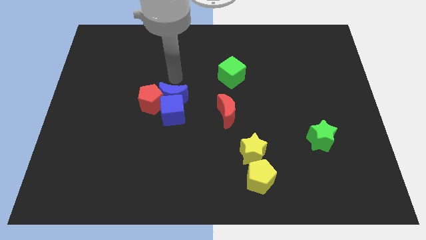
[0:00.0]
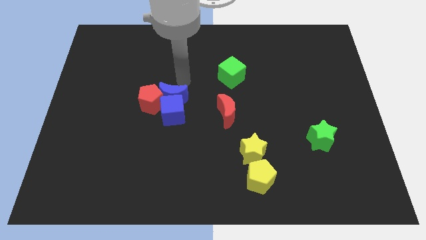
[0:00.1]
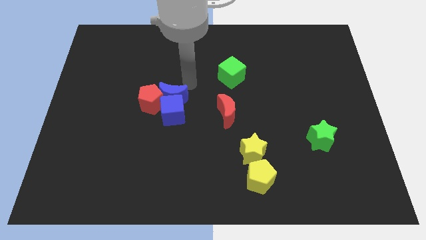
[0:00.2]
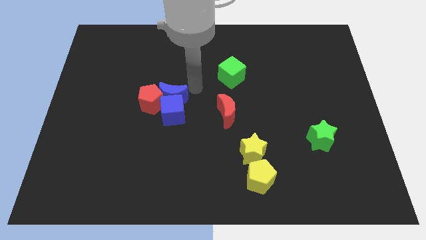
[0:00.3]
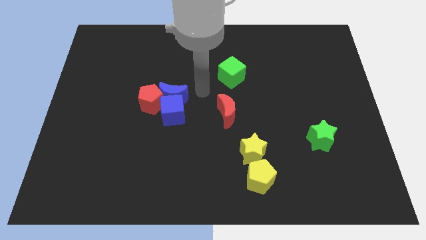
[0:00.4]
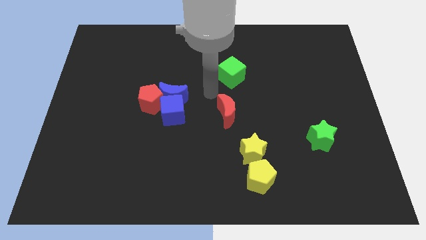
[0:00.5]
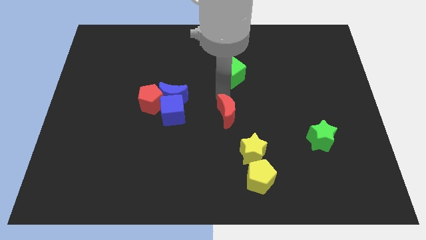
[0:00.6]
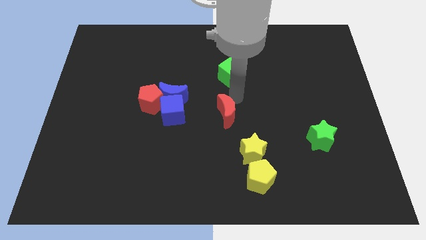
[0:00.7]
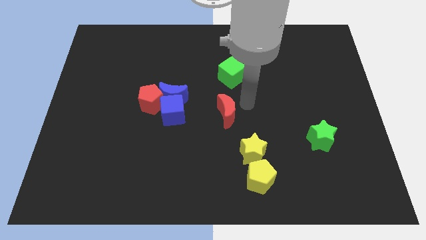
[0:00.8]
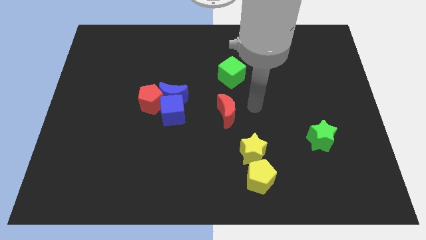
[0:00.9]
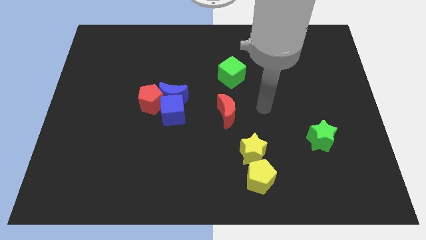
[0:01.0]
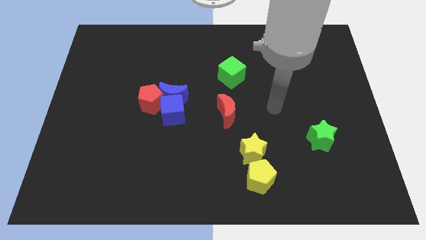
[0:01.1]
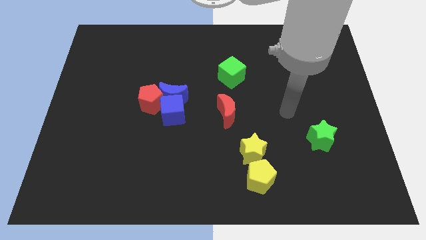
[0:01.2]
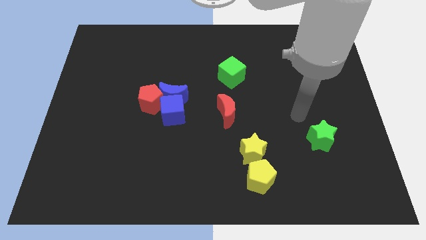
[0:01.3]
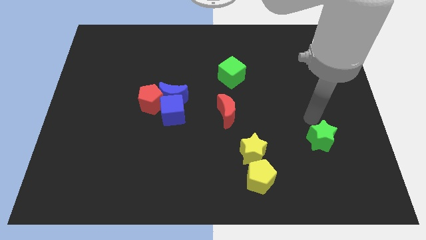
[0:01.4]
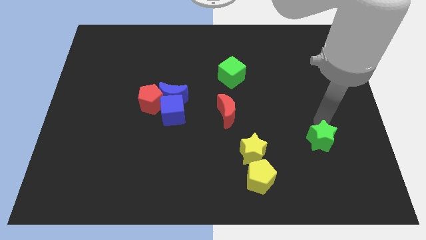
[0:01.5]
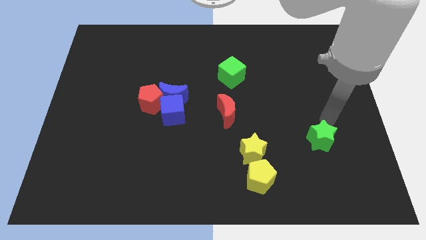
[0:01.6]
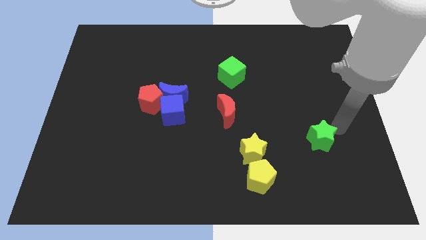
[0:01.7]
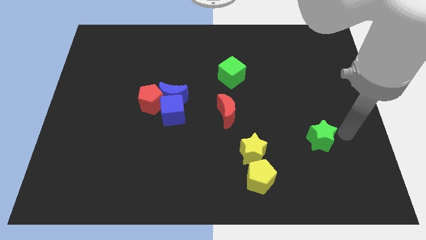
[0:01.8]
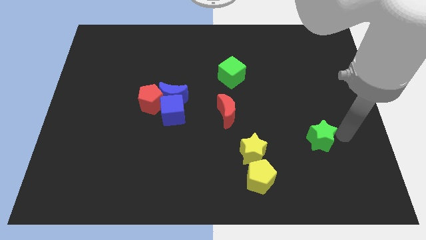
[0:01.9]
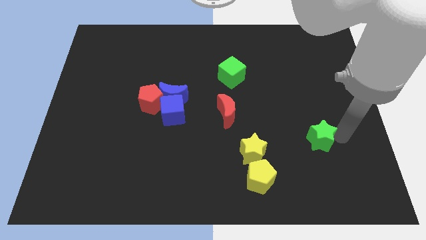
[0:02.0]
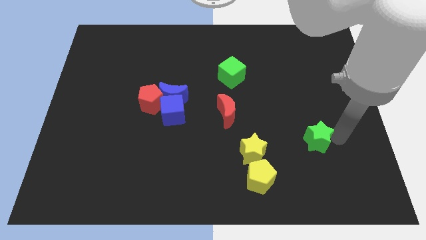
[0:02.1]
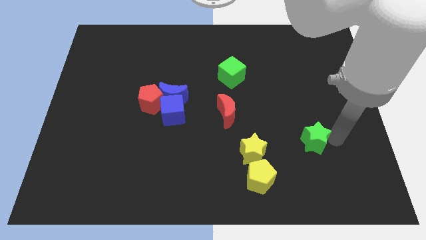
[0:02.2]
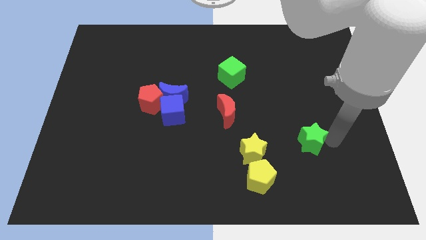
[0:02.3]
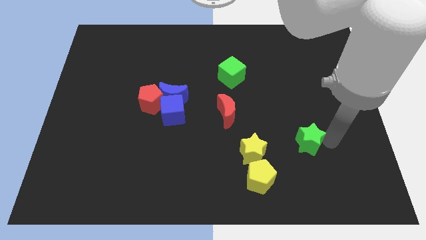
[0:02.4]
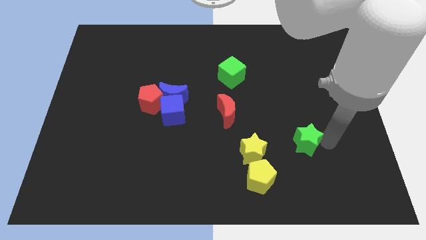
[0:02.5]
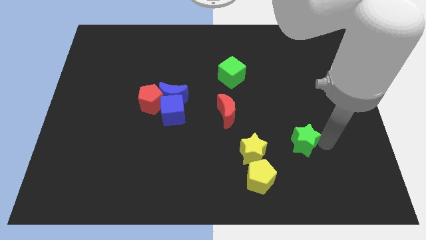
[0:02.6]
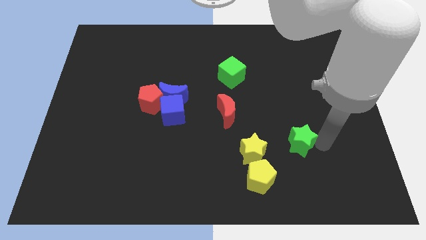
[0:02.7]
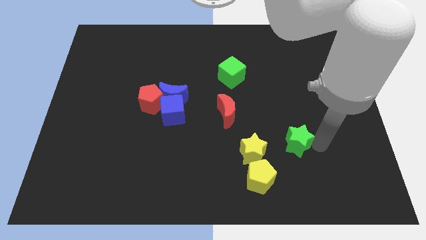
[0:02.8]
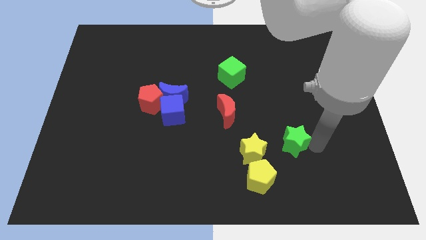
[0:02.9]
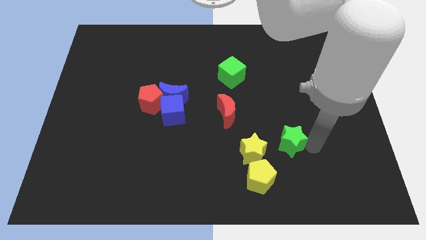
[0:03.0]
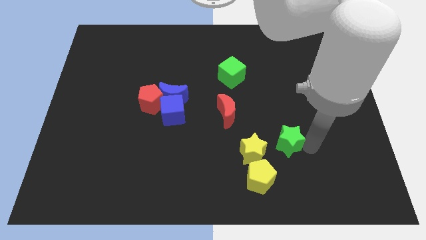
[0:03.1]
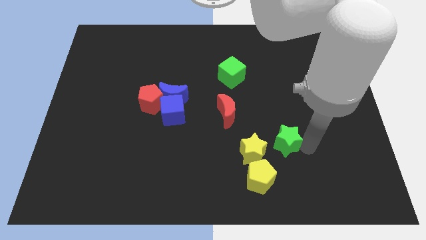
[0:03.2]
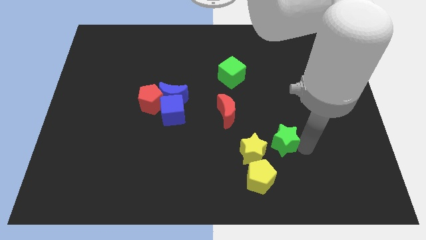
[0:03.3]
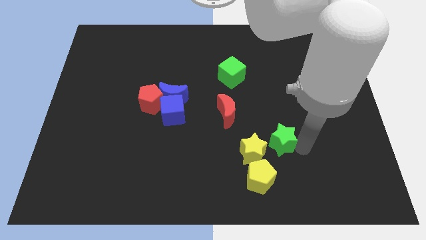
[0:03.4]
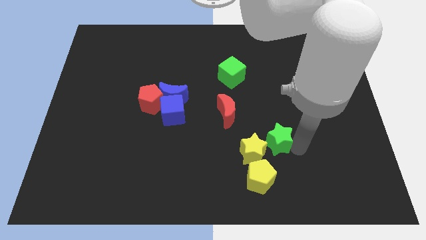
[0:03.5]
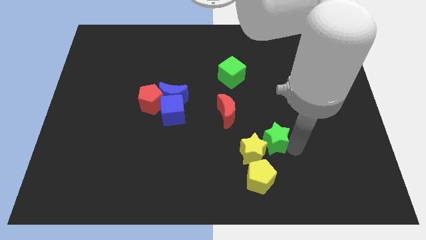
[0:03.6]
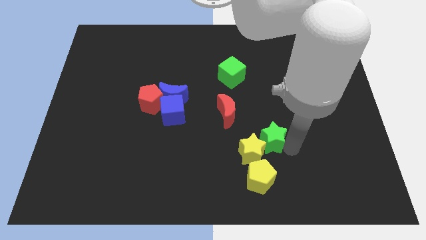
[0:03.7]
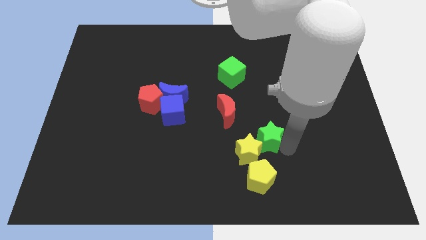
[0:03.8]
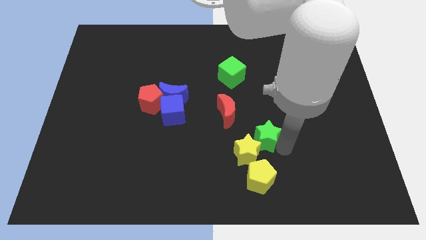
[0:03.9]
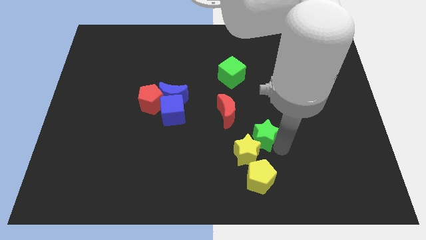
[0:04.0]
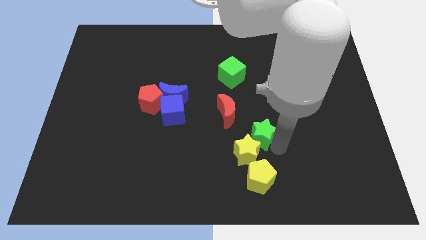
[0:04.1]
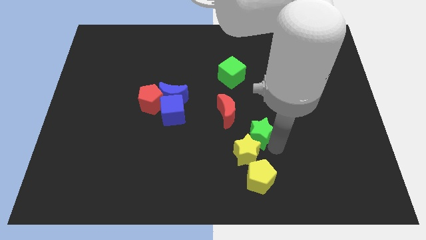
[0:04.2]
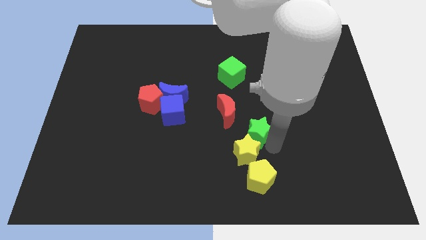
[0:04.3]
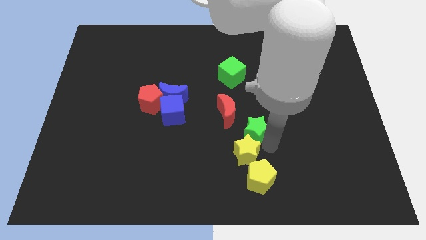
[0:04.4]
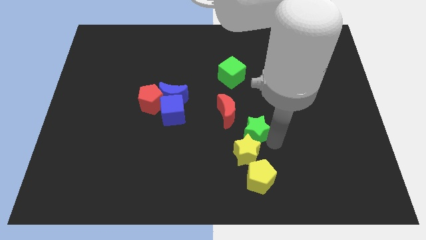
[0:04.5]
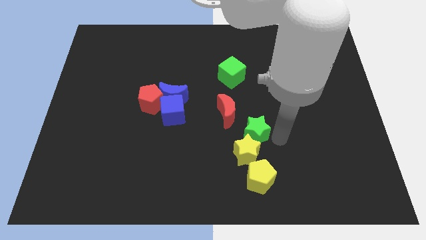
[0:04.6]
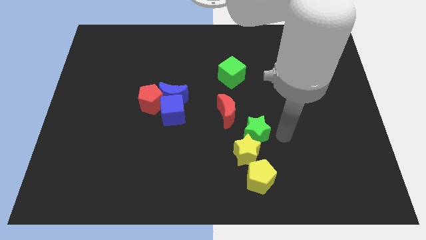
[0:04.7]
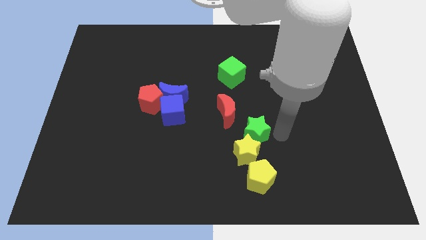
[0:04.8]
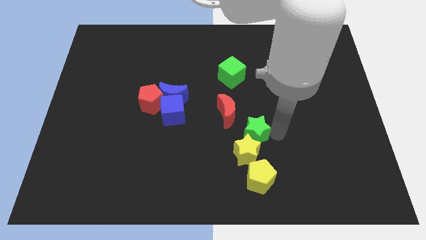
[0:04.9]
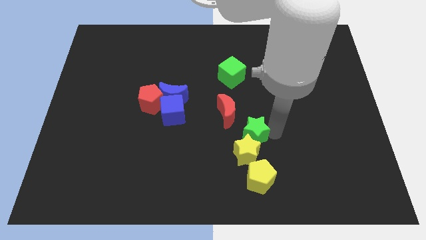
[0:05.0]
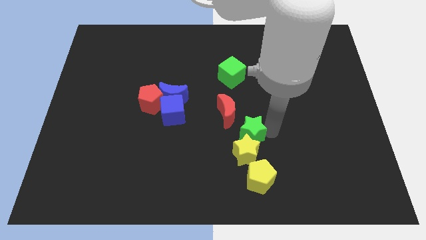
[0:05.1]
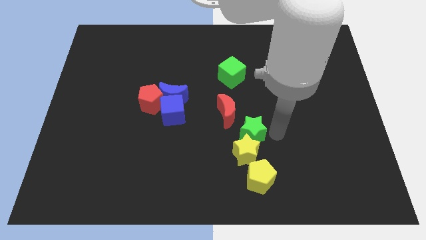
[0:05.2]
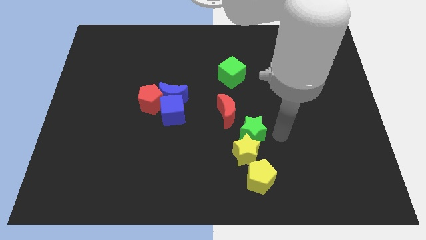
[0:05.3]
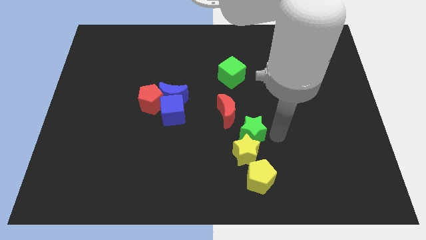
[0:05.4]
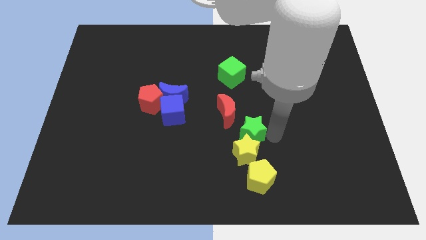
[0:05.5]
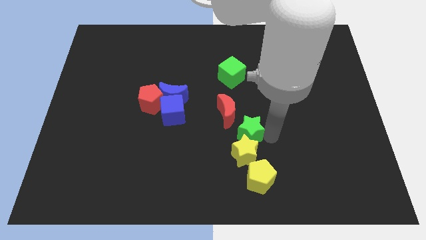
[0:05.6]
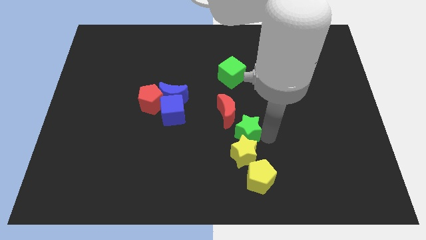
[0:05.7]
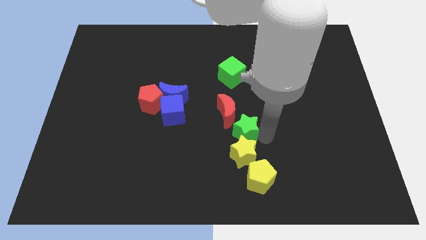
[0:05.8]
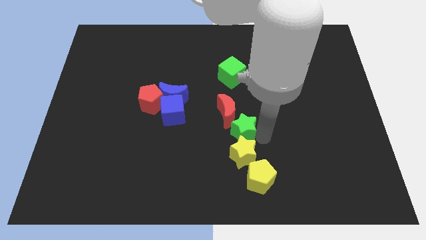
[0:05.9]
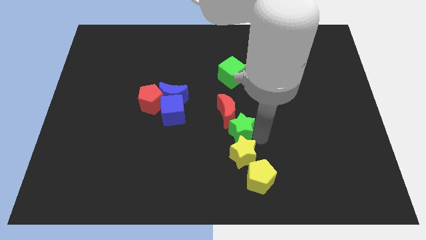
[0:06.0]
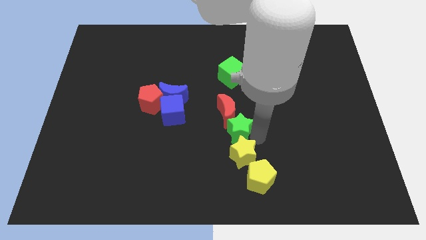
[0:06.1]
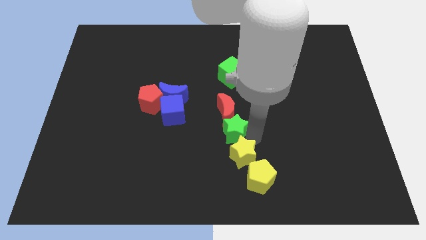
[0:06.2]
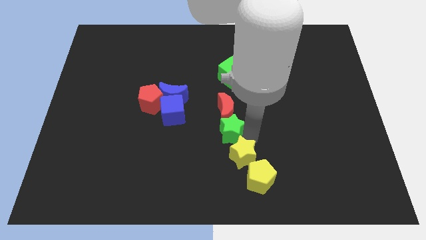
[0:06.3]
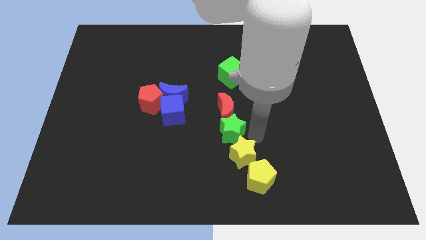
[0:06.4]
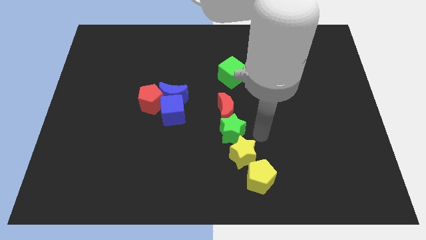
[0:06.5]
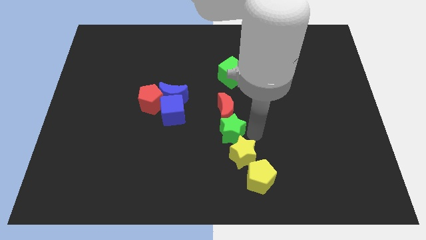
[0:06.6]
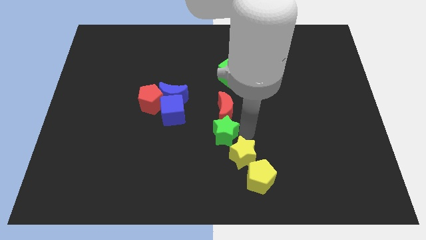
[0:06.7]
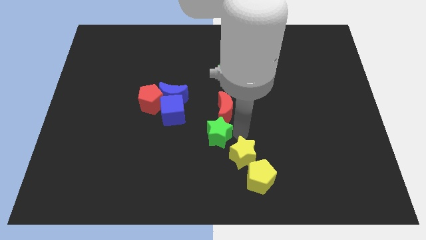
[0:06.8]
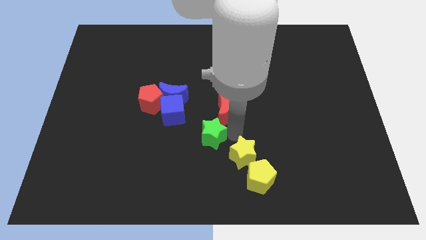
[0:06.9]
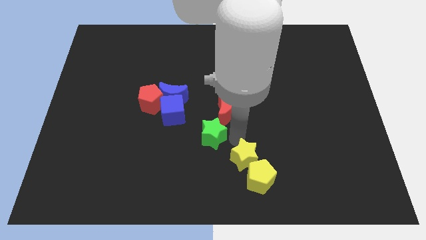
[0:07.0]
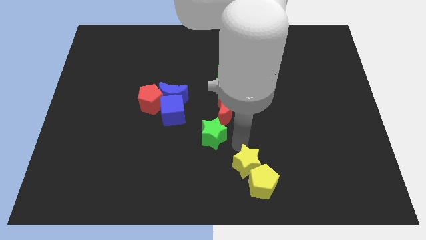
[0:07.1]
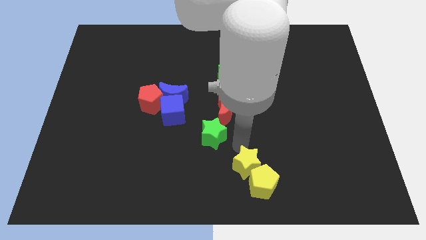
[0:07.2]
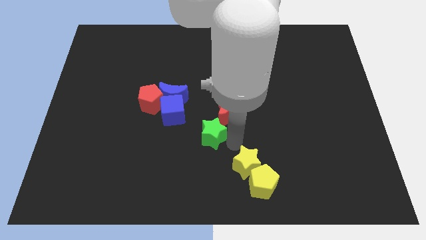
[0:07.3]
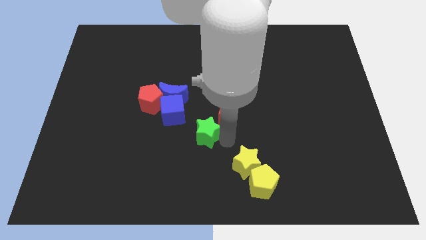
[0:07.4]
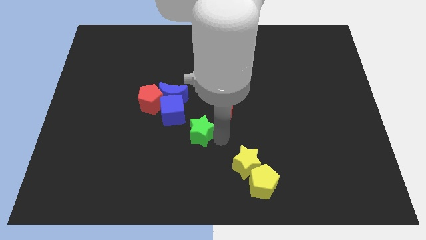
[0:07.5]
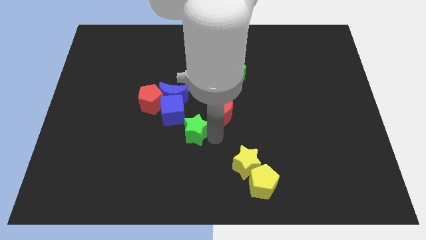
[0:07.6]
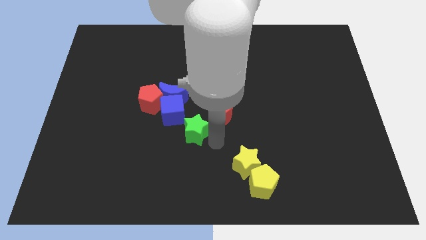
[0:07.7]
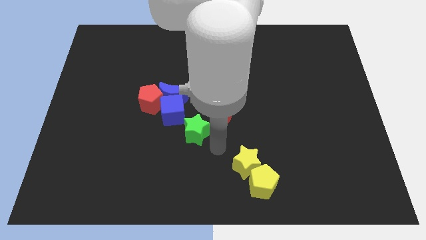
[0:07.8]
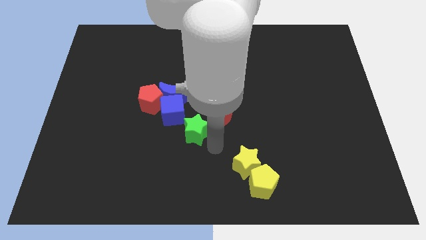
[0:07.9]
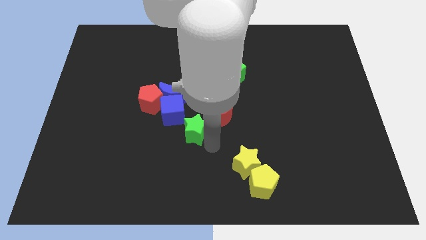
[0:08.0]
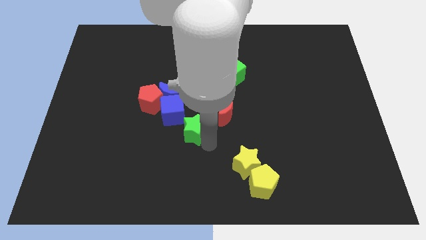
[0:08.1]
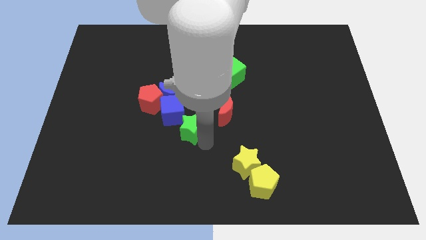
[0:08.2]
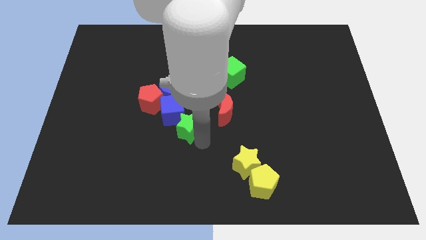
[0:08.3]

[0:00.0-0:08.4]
put the green star towards the blue cube
